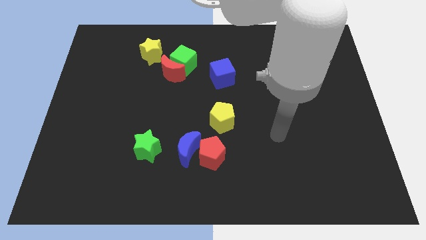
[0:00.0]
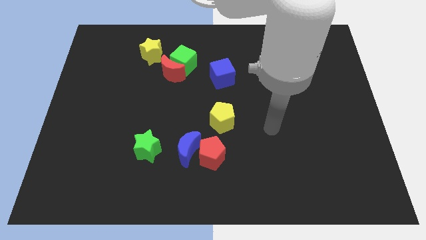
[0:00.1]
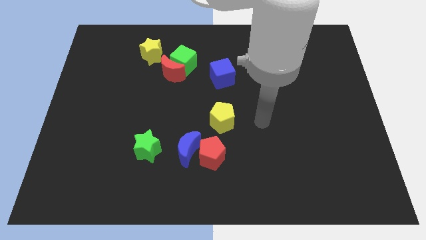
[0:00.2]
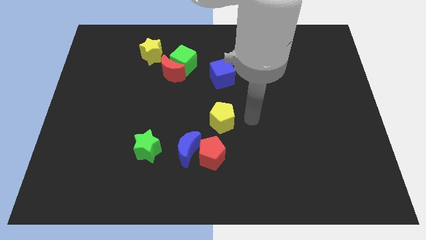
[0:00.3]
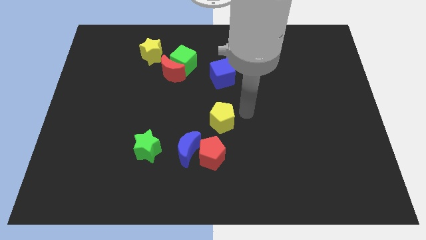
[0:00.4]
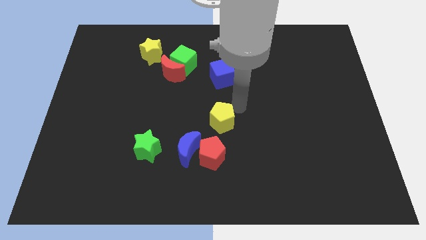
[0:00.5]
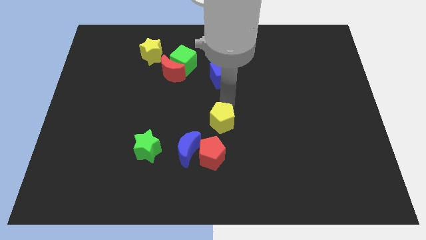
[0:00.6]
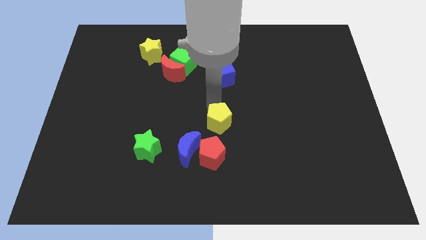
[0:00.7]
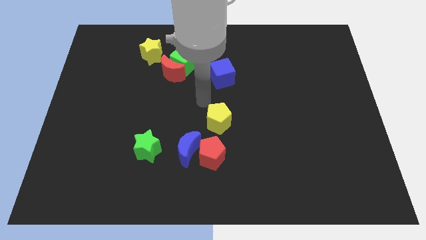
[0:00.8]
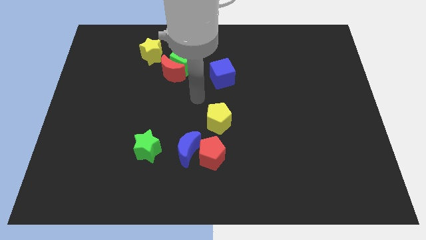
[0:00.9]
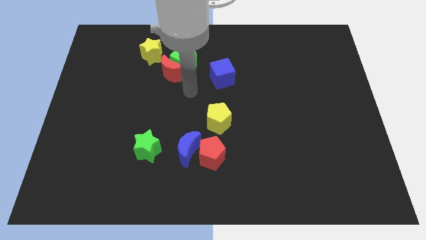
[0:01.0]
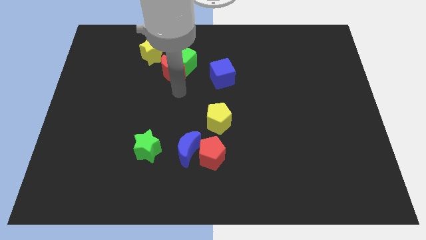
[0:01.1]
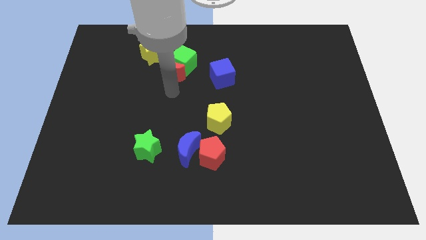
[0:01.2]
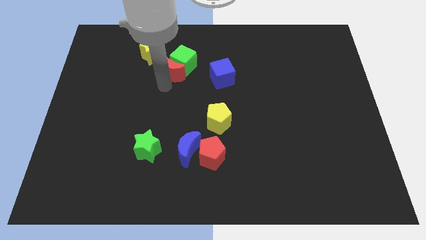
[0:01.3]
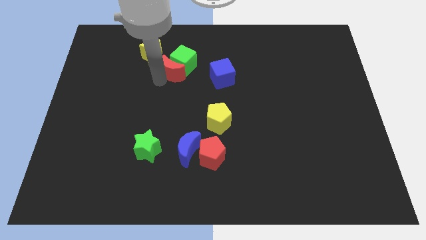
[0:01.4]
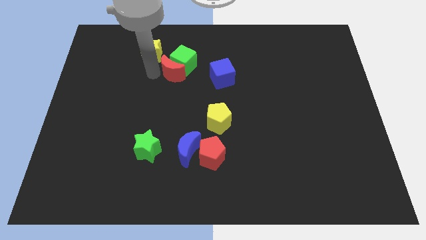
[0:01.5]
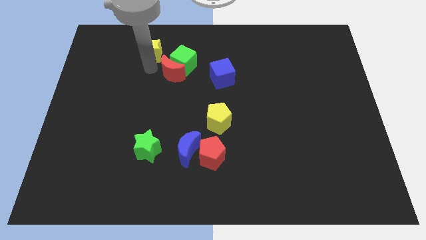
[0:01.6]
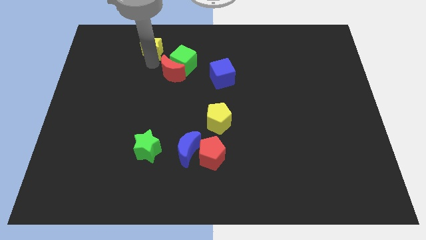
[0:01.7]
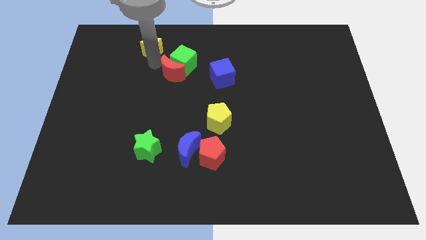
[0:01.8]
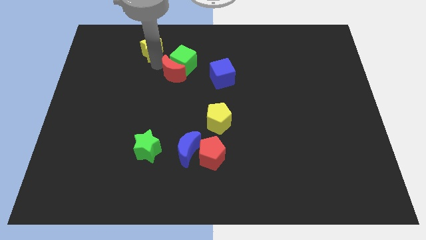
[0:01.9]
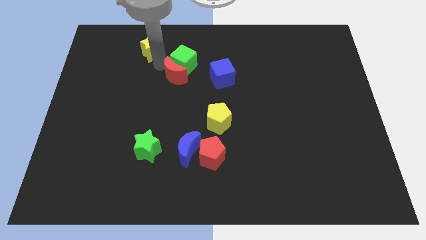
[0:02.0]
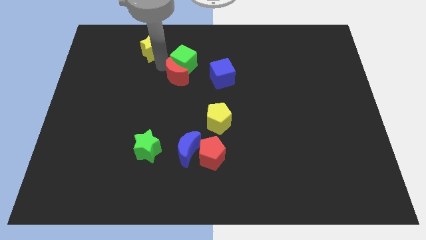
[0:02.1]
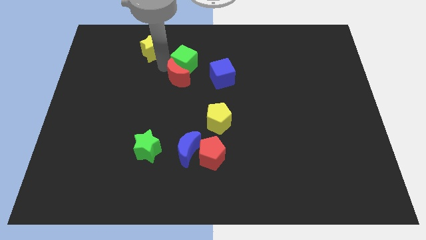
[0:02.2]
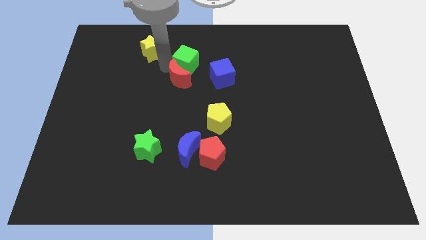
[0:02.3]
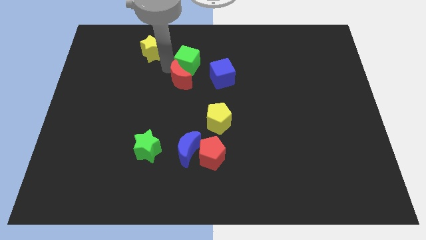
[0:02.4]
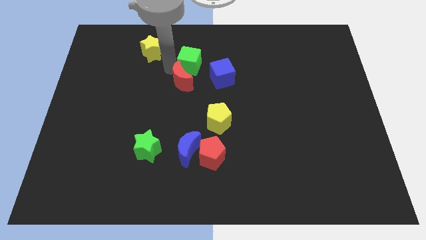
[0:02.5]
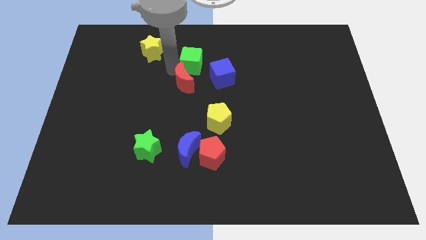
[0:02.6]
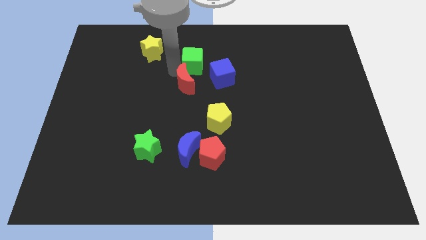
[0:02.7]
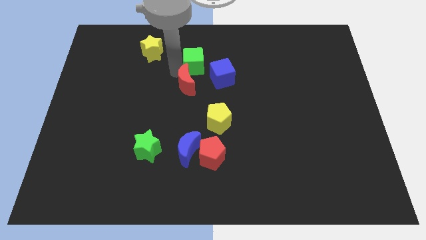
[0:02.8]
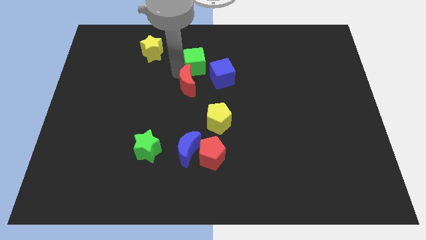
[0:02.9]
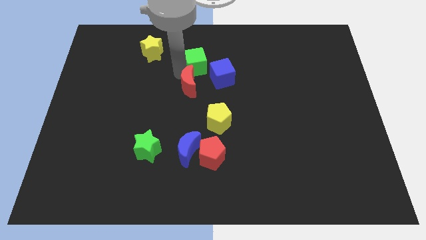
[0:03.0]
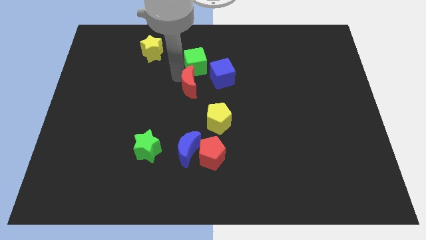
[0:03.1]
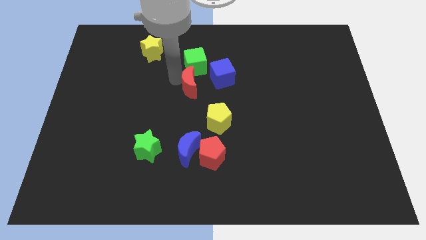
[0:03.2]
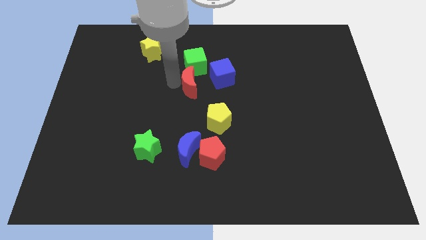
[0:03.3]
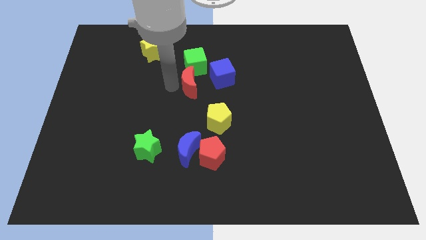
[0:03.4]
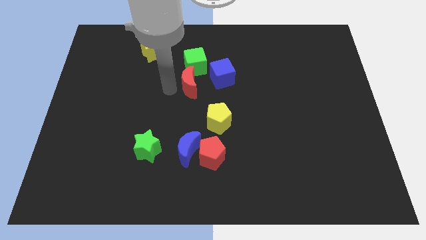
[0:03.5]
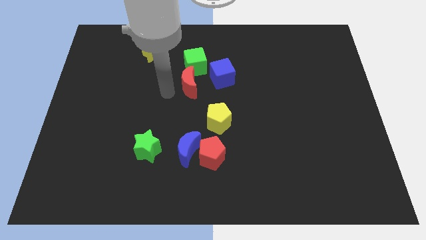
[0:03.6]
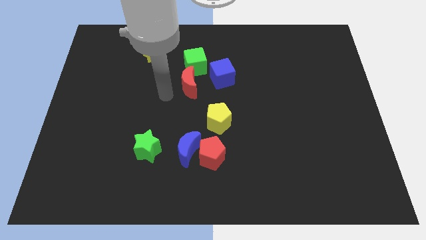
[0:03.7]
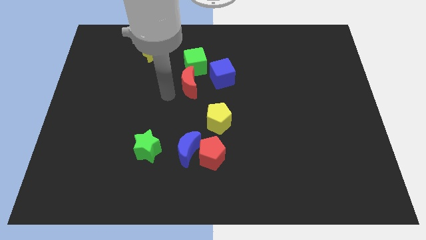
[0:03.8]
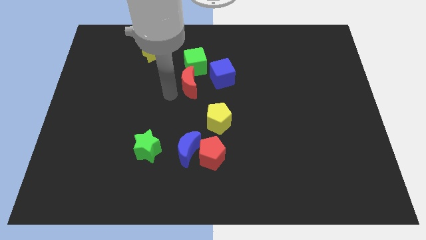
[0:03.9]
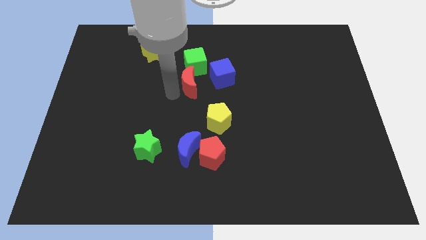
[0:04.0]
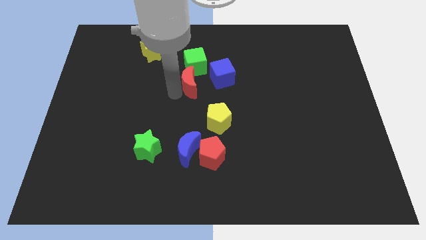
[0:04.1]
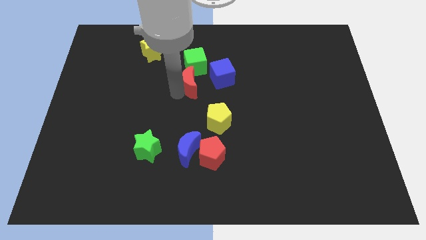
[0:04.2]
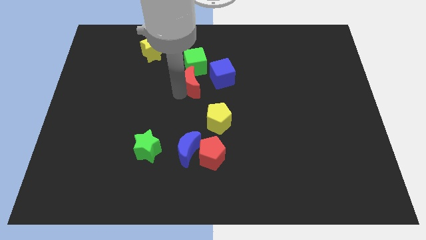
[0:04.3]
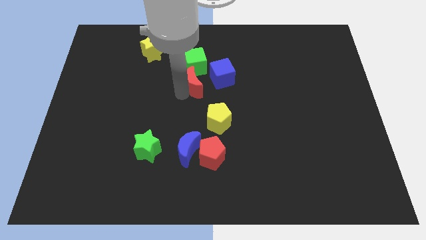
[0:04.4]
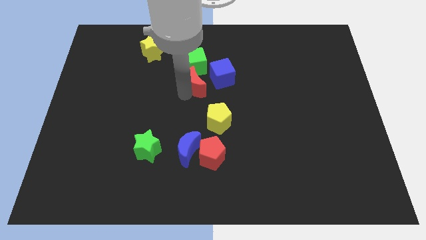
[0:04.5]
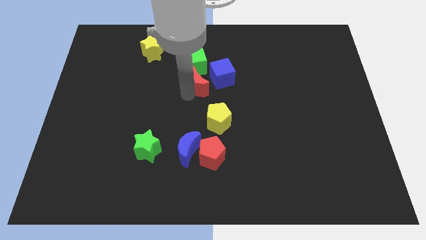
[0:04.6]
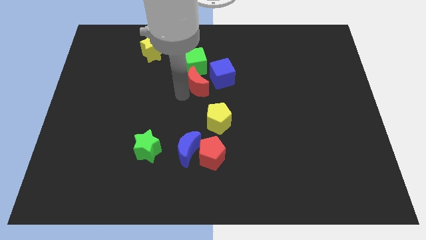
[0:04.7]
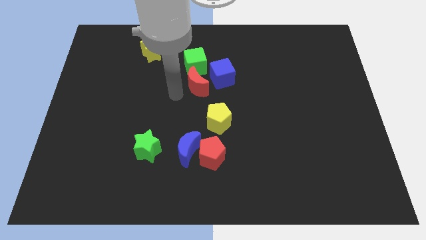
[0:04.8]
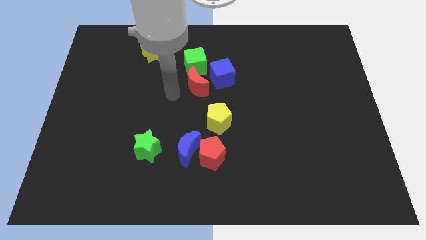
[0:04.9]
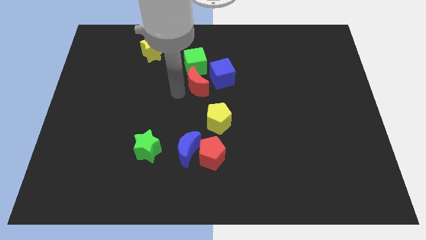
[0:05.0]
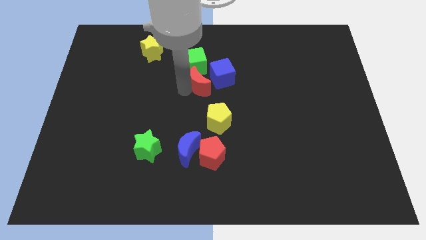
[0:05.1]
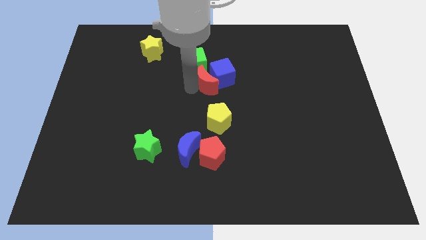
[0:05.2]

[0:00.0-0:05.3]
put the red moon close to the blue cube

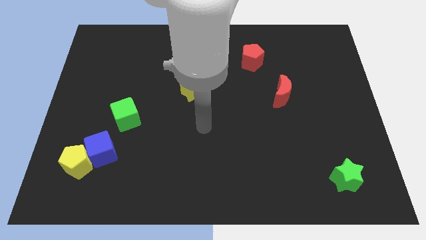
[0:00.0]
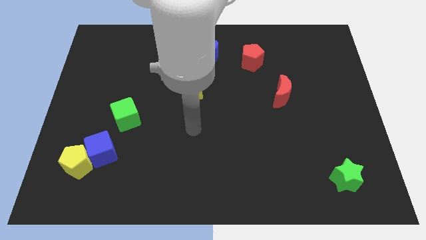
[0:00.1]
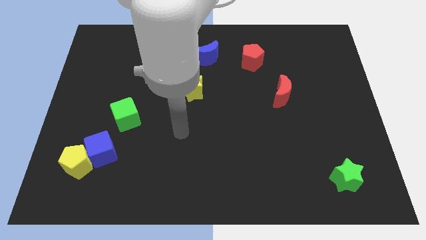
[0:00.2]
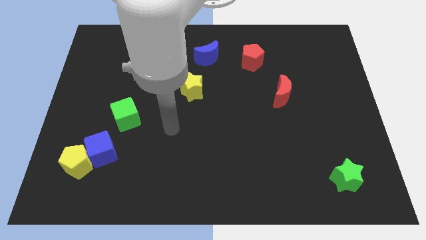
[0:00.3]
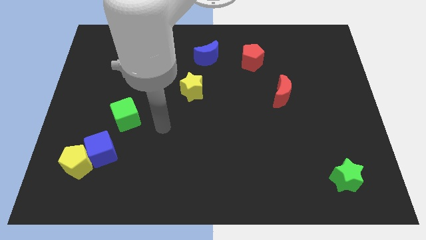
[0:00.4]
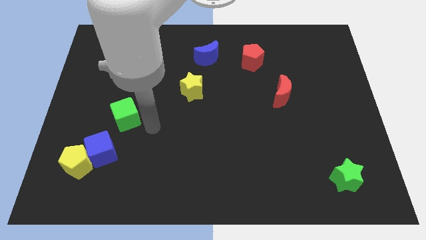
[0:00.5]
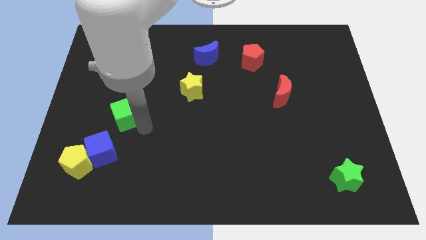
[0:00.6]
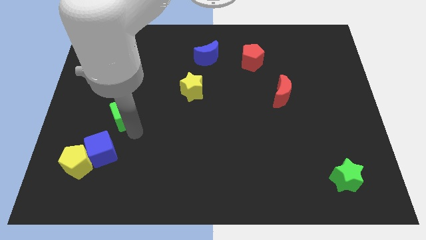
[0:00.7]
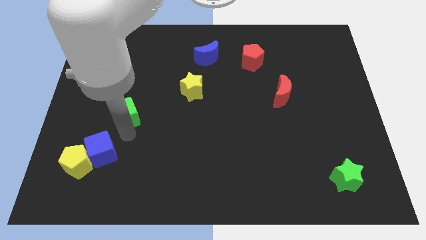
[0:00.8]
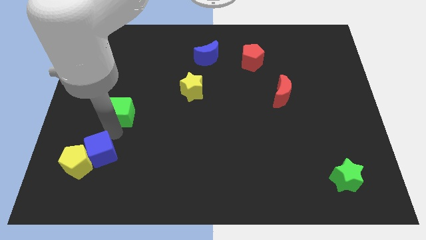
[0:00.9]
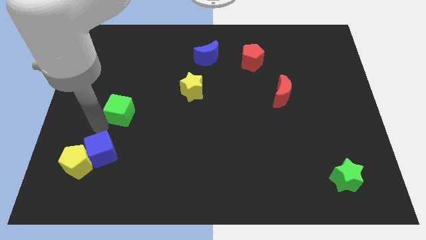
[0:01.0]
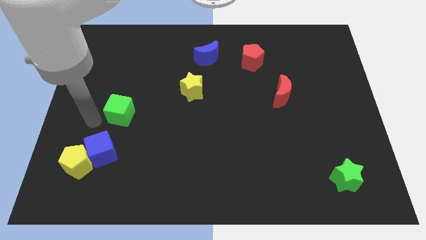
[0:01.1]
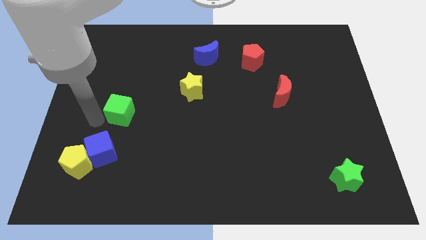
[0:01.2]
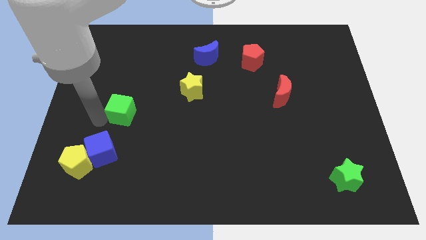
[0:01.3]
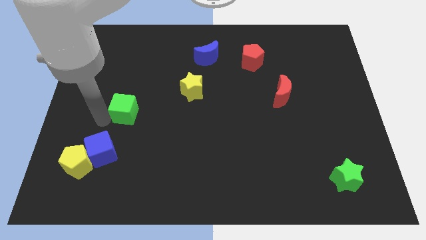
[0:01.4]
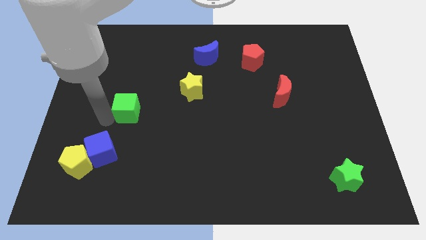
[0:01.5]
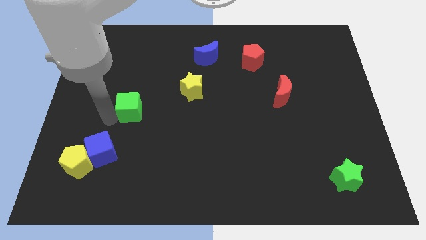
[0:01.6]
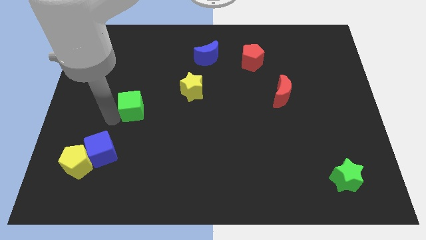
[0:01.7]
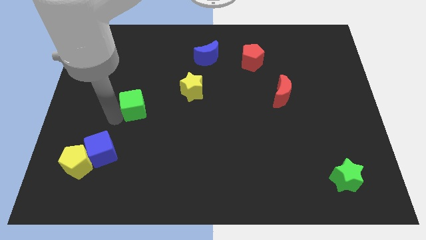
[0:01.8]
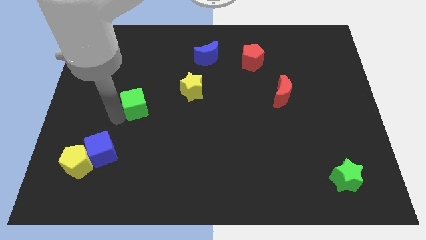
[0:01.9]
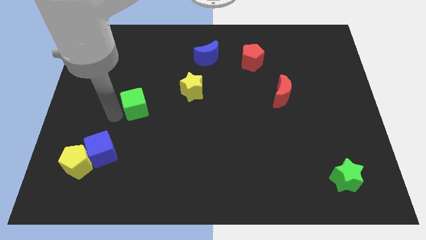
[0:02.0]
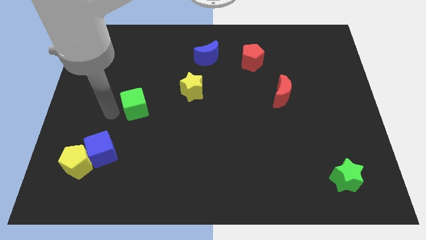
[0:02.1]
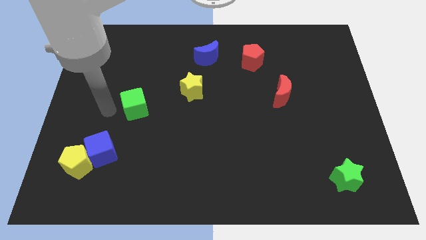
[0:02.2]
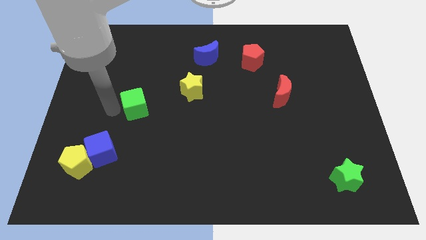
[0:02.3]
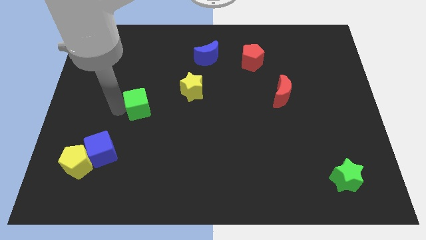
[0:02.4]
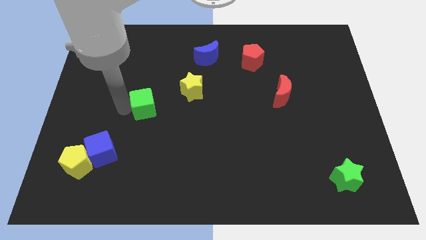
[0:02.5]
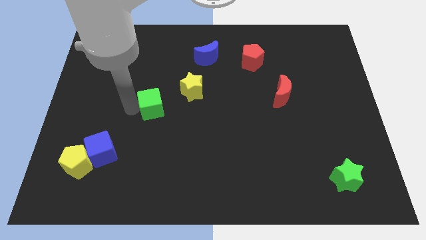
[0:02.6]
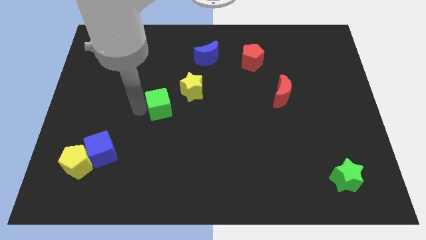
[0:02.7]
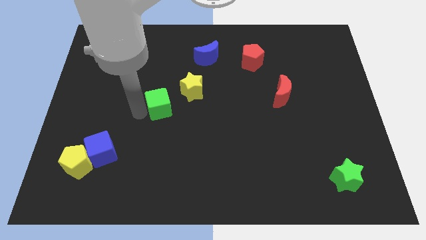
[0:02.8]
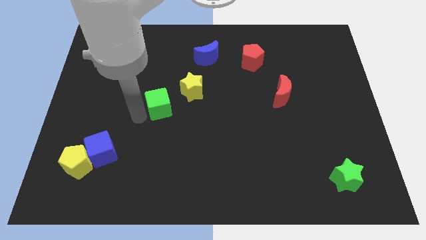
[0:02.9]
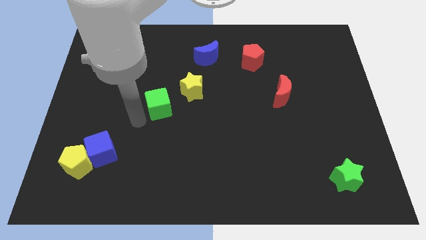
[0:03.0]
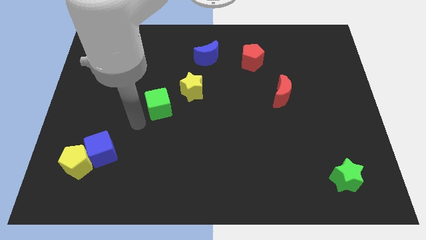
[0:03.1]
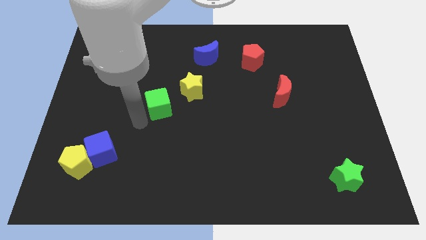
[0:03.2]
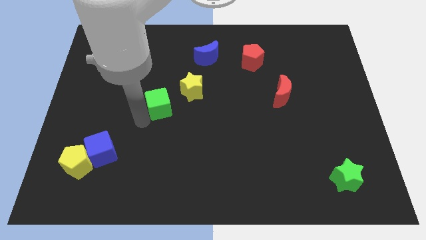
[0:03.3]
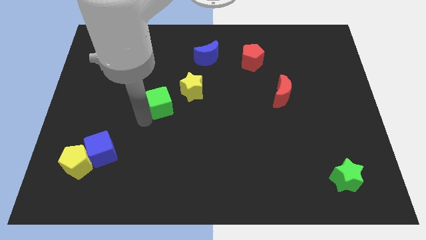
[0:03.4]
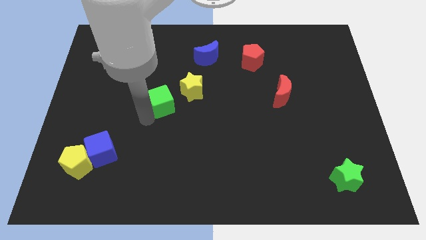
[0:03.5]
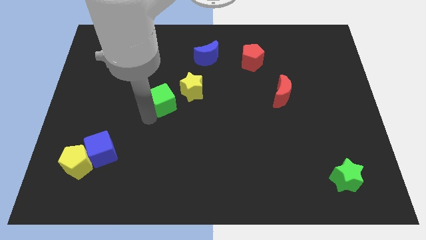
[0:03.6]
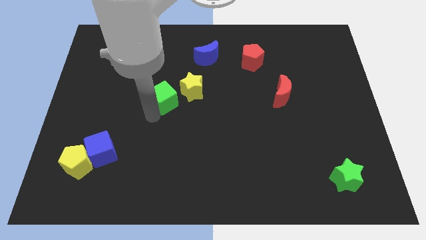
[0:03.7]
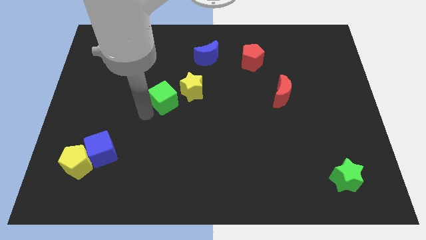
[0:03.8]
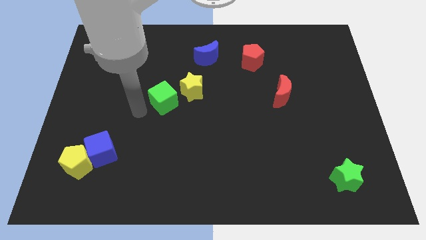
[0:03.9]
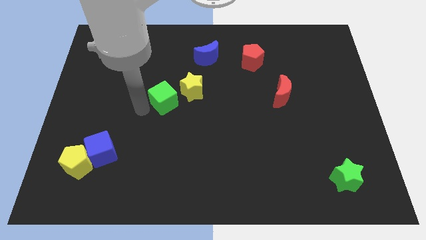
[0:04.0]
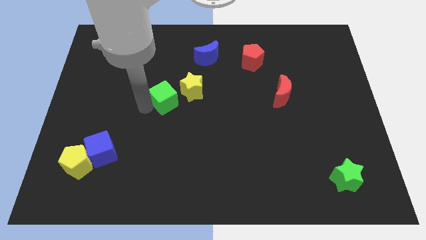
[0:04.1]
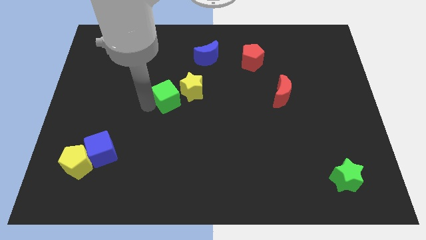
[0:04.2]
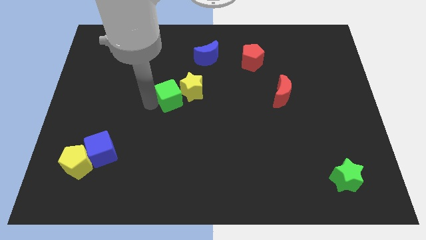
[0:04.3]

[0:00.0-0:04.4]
put the green cube towards the yellow star
